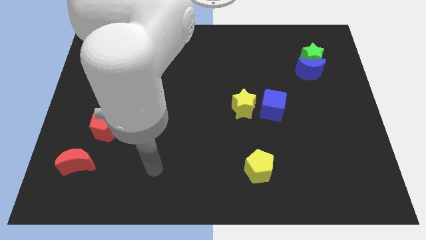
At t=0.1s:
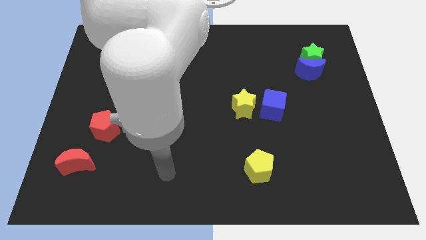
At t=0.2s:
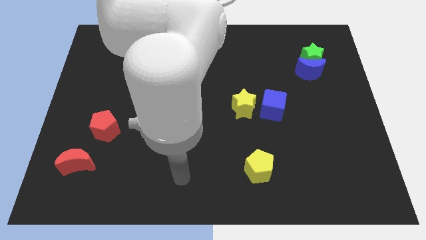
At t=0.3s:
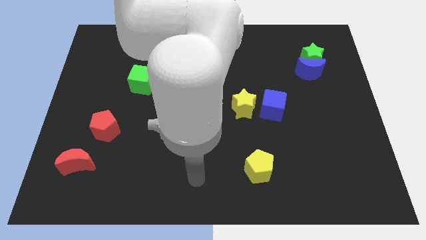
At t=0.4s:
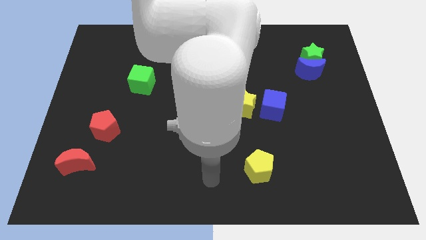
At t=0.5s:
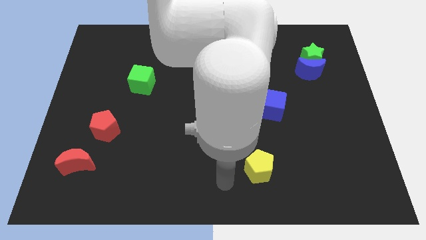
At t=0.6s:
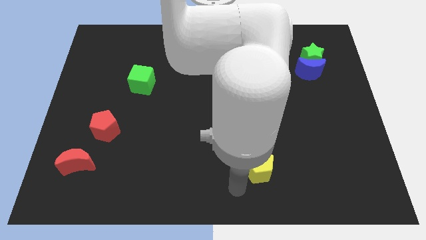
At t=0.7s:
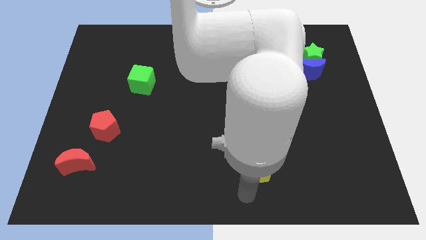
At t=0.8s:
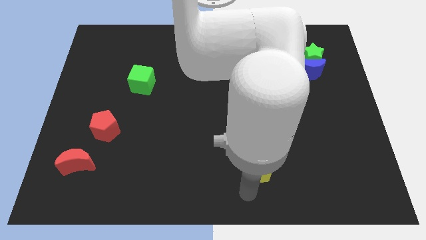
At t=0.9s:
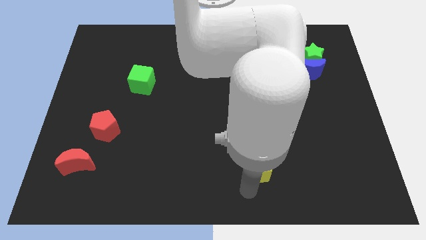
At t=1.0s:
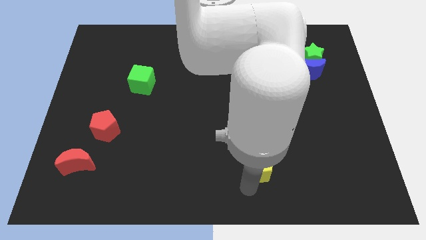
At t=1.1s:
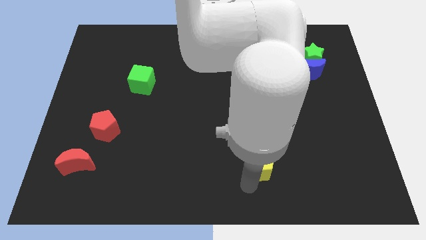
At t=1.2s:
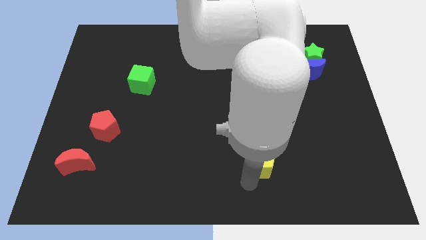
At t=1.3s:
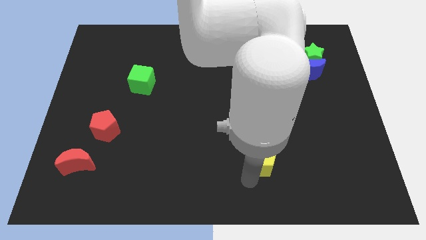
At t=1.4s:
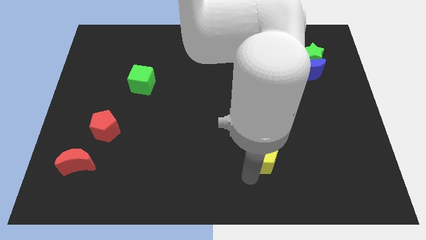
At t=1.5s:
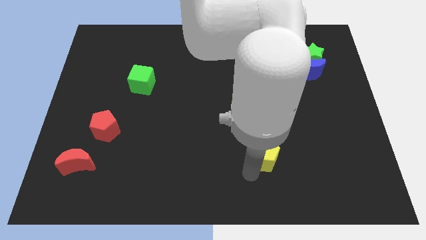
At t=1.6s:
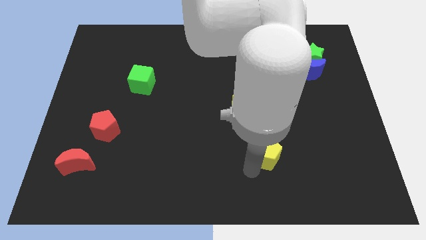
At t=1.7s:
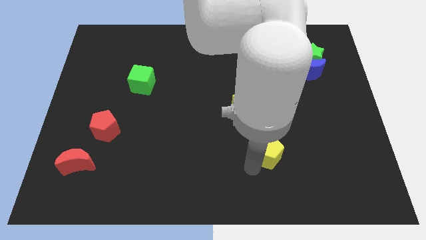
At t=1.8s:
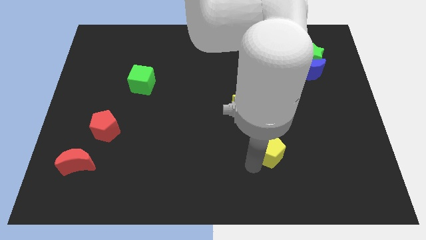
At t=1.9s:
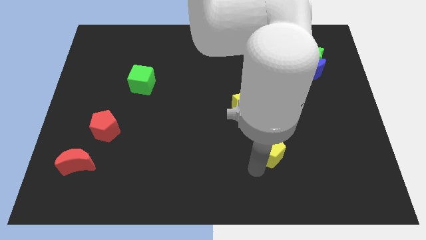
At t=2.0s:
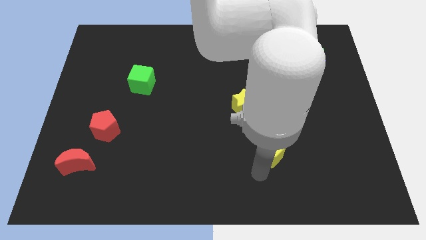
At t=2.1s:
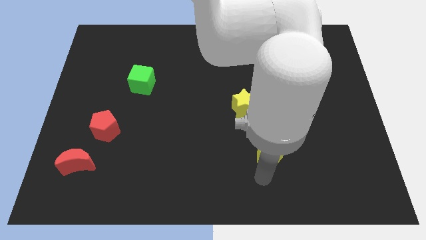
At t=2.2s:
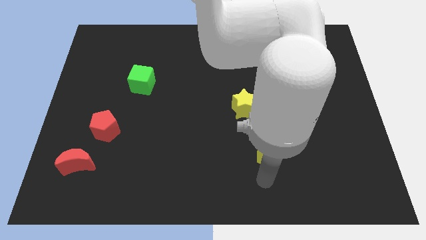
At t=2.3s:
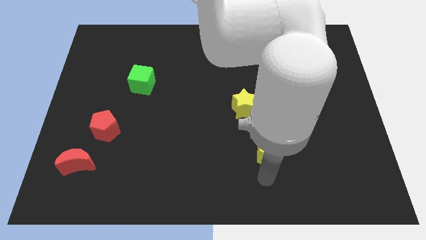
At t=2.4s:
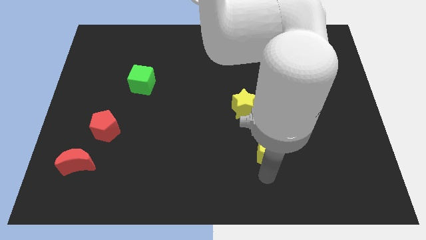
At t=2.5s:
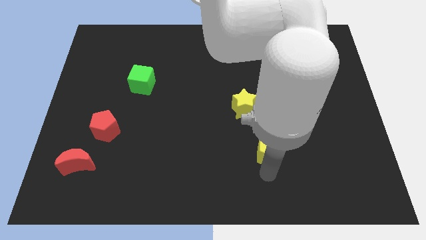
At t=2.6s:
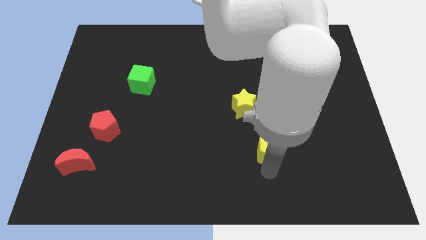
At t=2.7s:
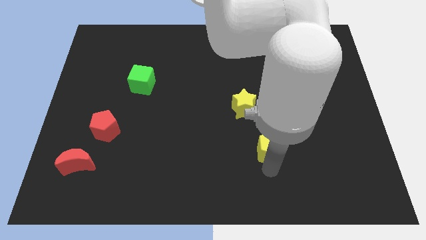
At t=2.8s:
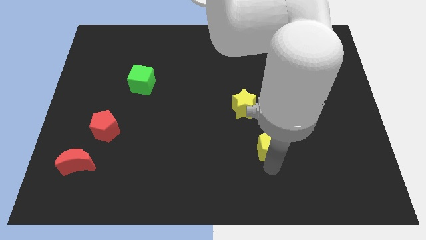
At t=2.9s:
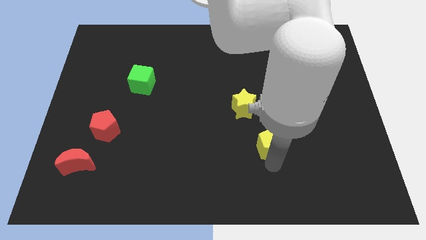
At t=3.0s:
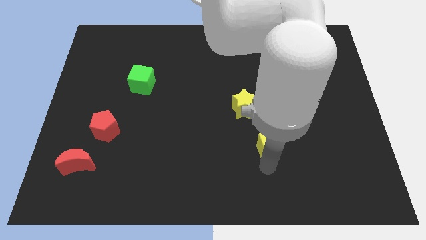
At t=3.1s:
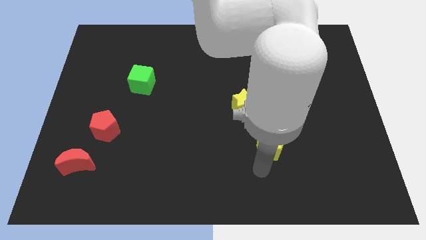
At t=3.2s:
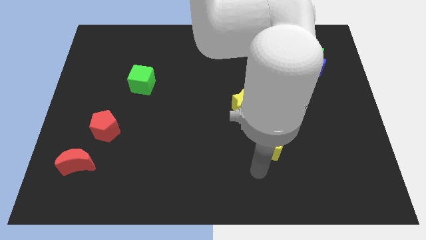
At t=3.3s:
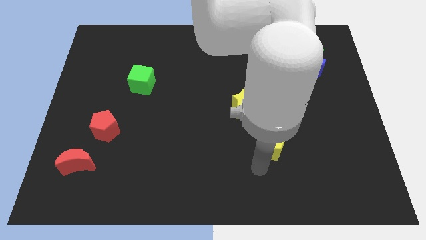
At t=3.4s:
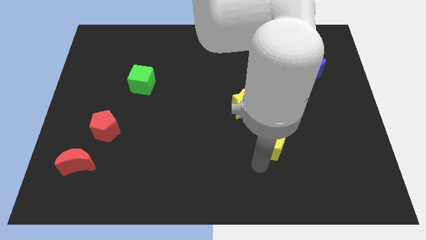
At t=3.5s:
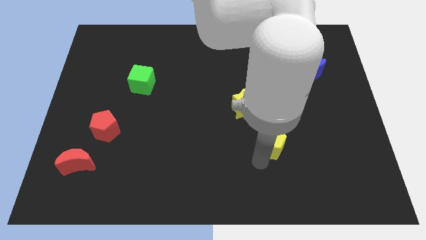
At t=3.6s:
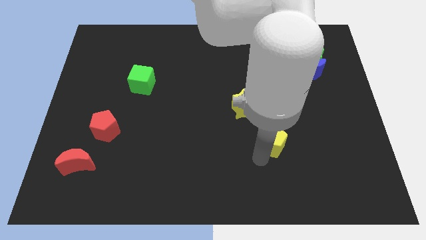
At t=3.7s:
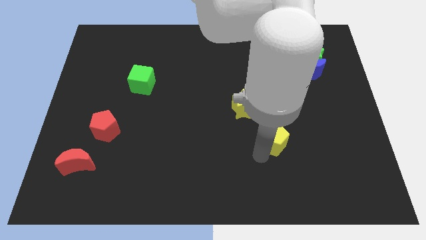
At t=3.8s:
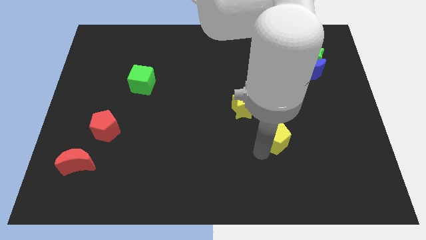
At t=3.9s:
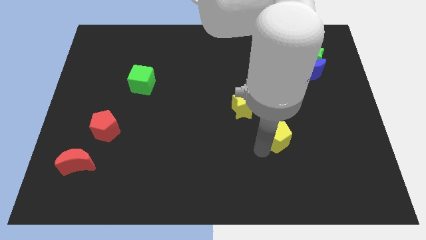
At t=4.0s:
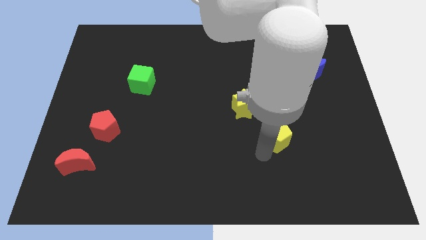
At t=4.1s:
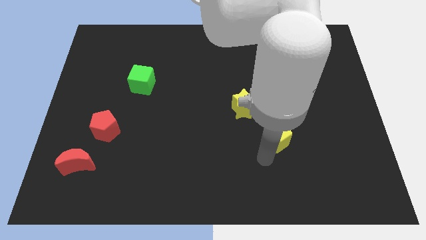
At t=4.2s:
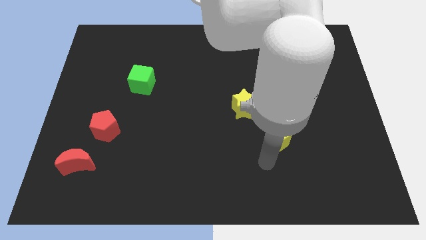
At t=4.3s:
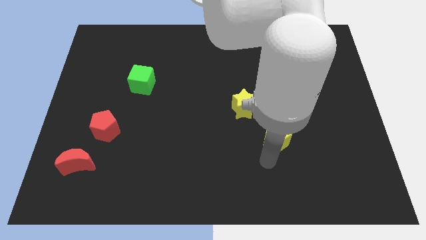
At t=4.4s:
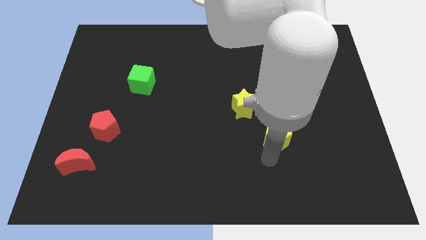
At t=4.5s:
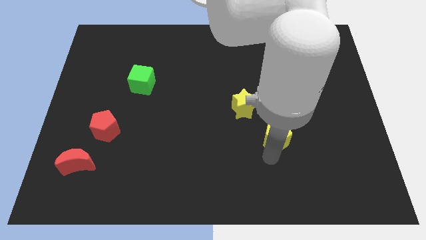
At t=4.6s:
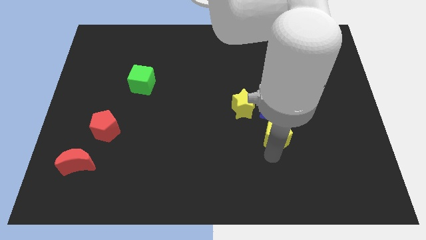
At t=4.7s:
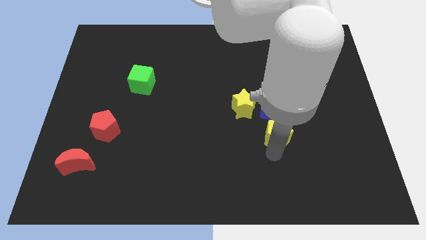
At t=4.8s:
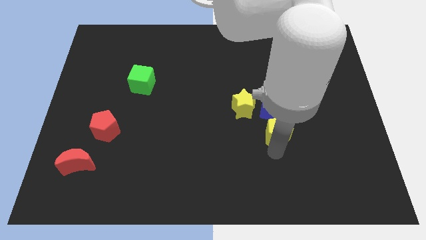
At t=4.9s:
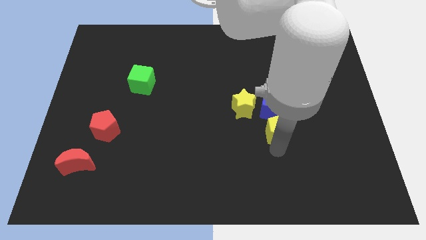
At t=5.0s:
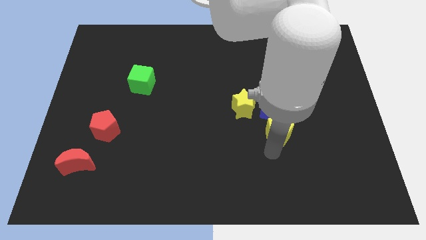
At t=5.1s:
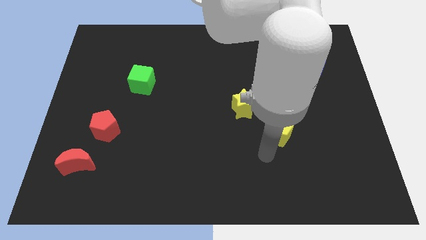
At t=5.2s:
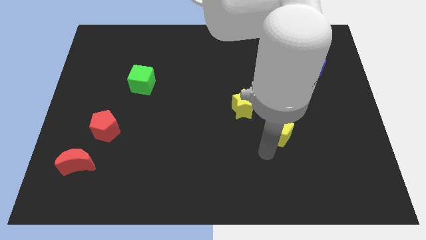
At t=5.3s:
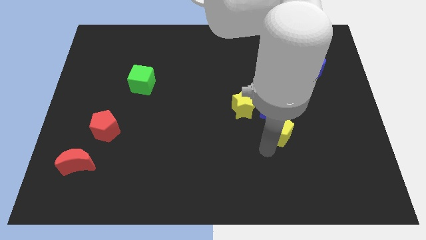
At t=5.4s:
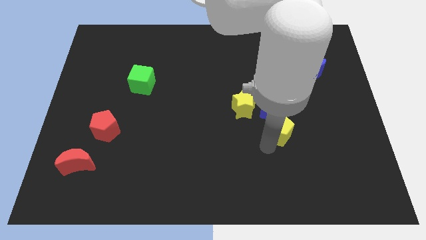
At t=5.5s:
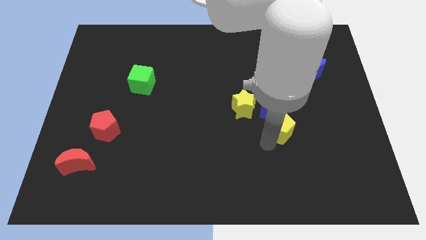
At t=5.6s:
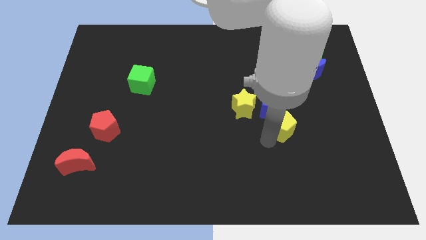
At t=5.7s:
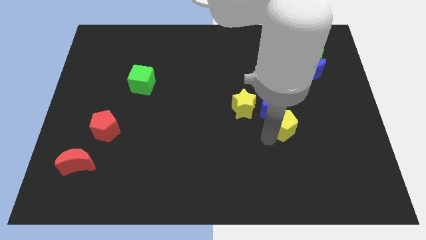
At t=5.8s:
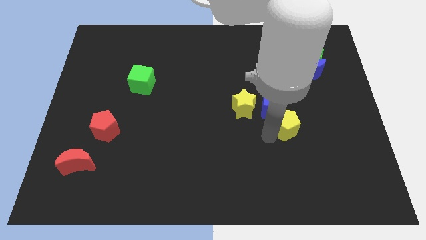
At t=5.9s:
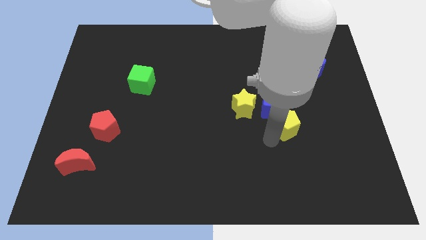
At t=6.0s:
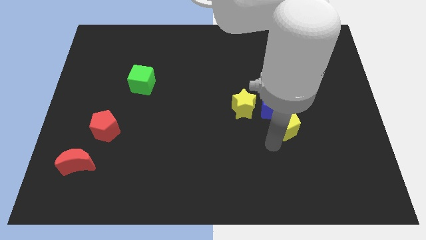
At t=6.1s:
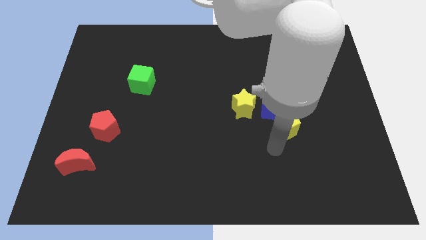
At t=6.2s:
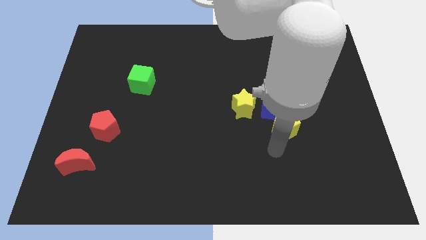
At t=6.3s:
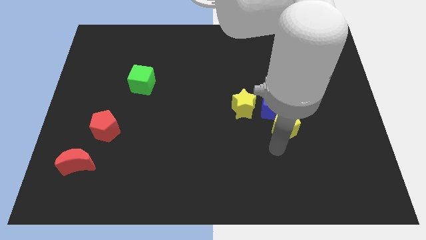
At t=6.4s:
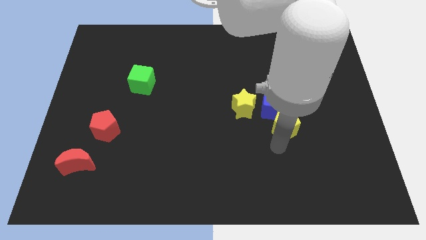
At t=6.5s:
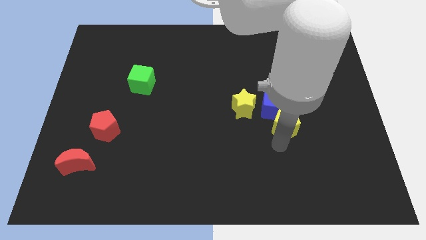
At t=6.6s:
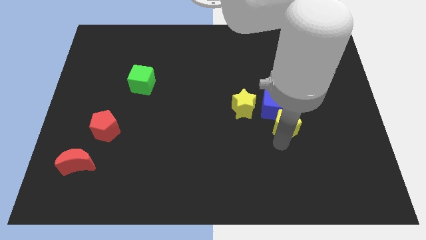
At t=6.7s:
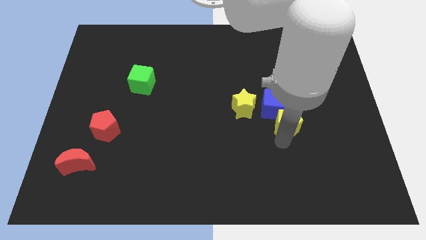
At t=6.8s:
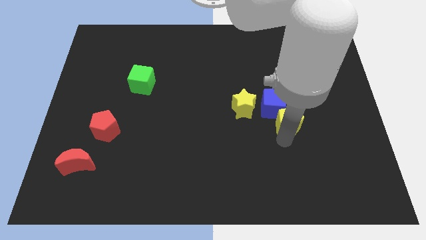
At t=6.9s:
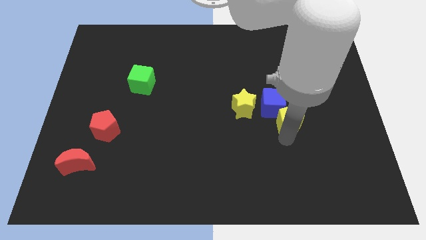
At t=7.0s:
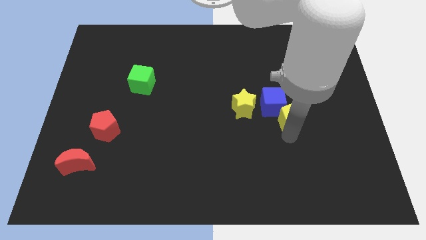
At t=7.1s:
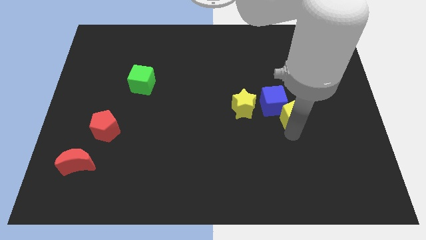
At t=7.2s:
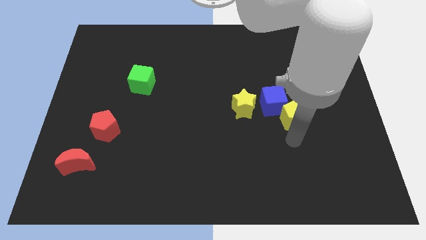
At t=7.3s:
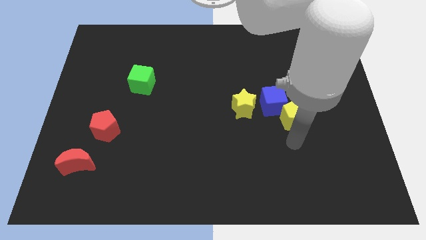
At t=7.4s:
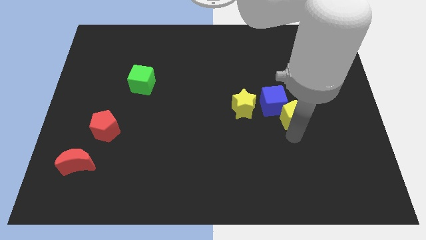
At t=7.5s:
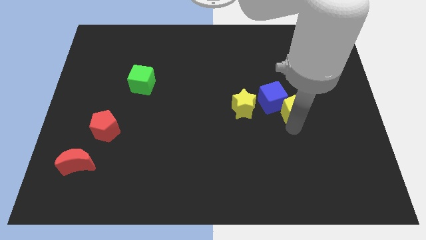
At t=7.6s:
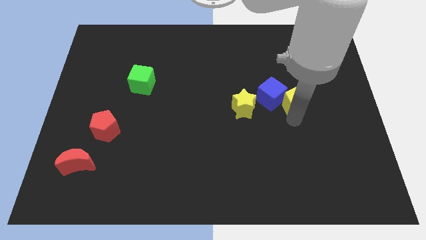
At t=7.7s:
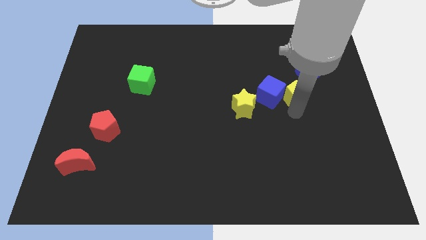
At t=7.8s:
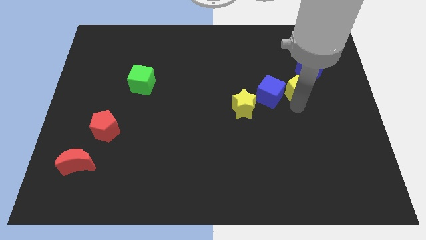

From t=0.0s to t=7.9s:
slide the yellow pentagon to the top right of the blue cube
